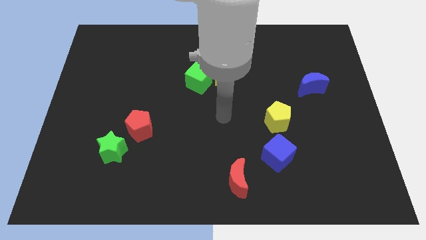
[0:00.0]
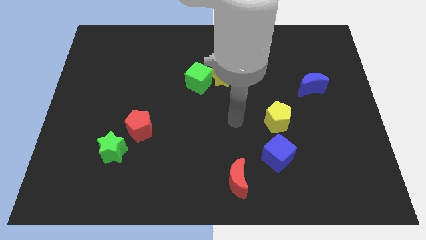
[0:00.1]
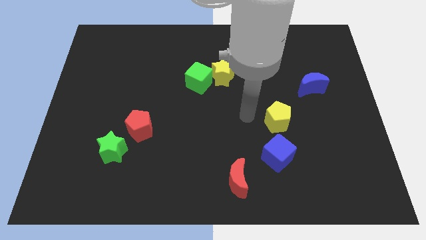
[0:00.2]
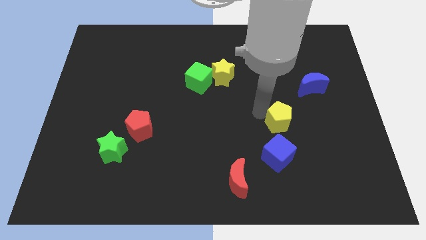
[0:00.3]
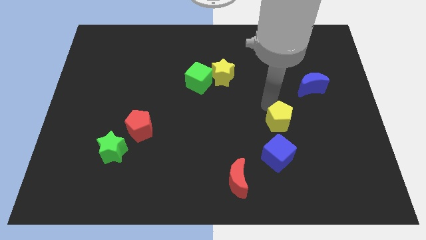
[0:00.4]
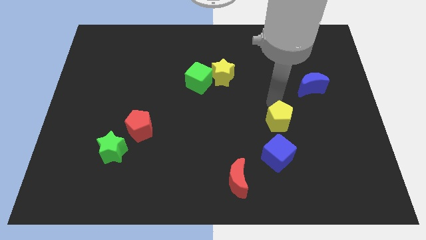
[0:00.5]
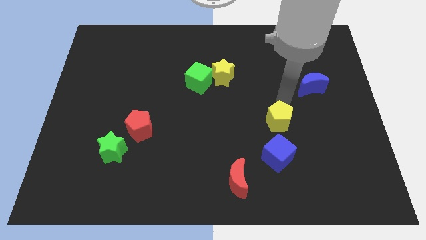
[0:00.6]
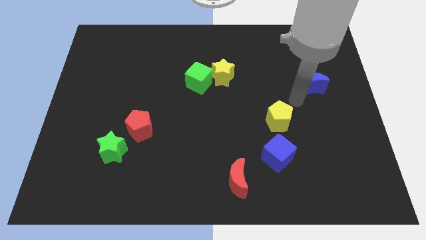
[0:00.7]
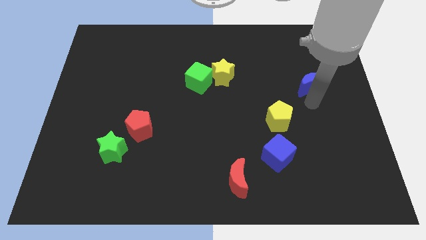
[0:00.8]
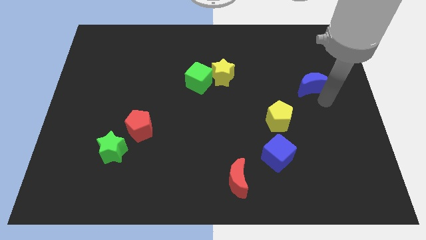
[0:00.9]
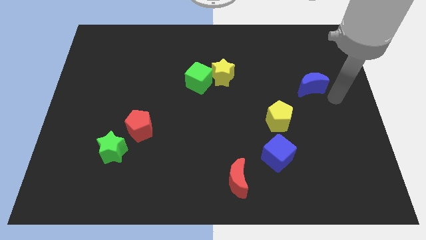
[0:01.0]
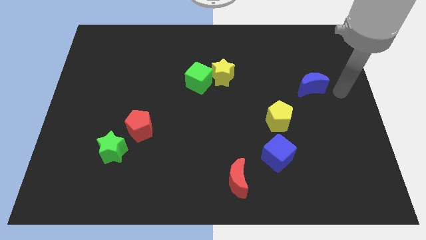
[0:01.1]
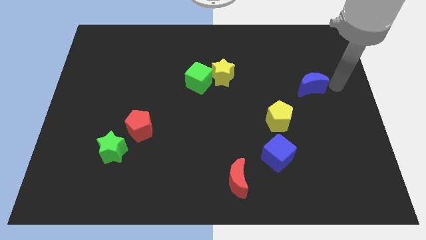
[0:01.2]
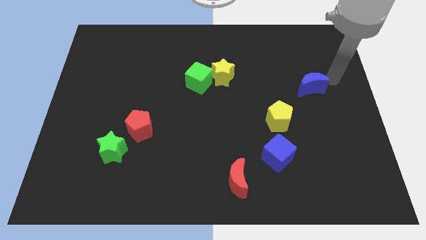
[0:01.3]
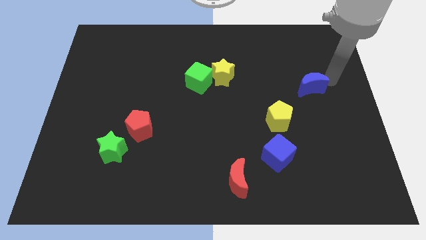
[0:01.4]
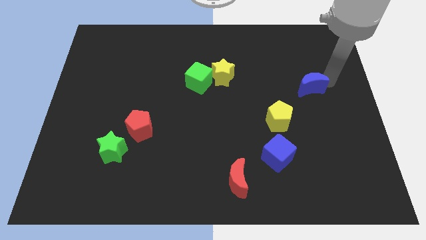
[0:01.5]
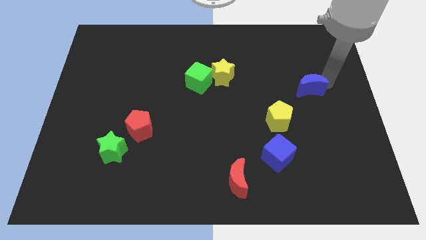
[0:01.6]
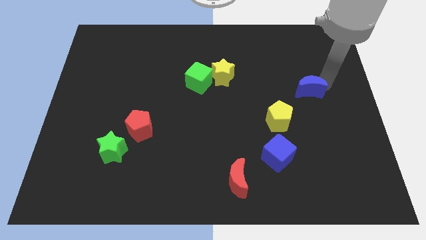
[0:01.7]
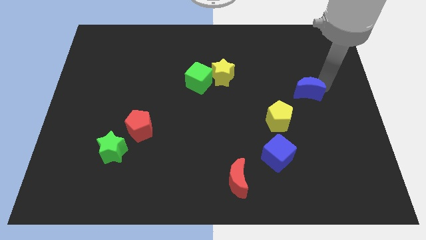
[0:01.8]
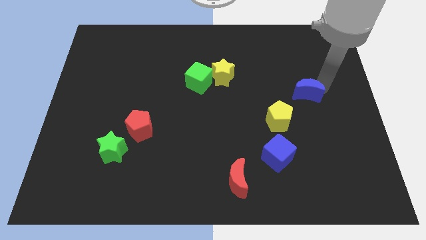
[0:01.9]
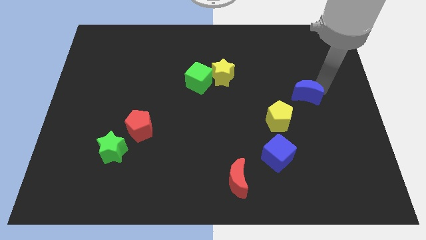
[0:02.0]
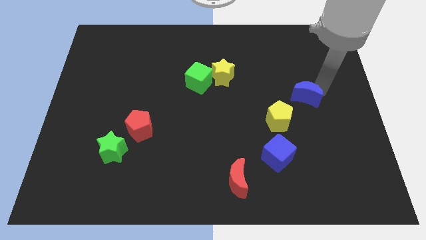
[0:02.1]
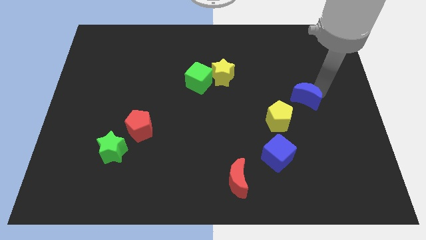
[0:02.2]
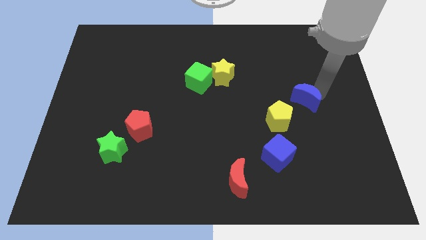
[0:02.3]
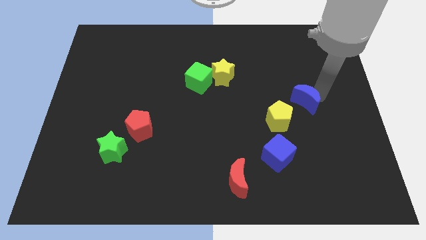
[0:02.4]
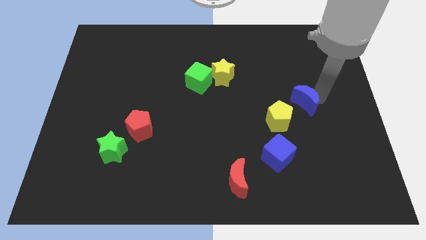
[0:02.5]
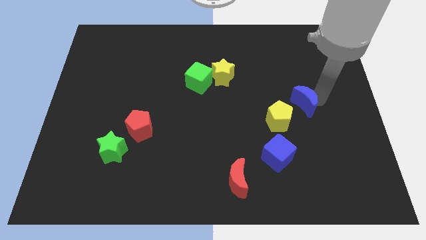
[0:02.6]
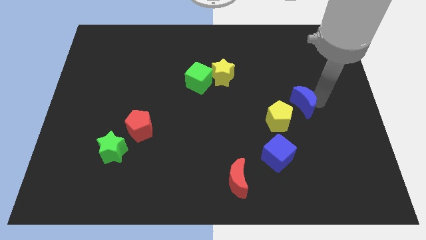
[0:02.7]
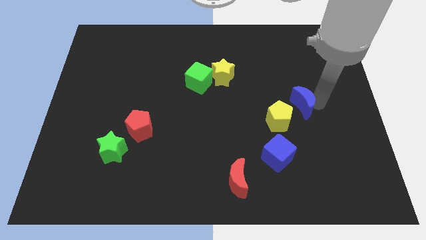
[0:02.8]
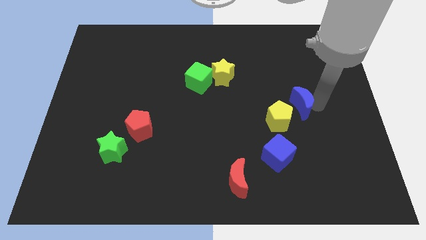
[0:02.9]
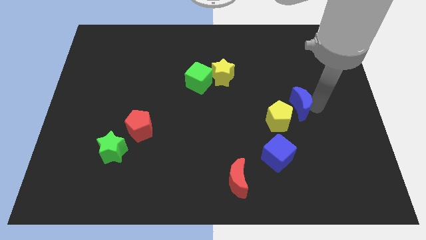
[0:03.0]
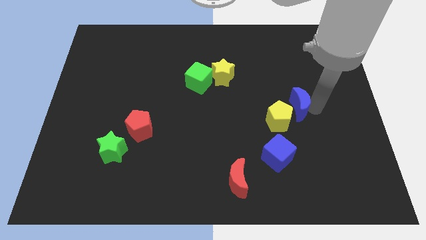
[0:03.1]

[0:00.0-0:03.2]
slide the blue moon a little bit down and left diagonally

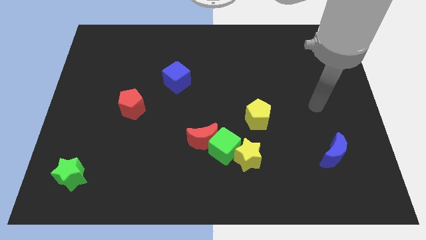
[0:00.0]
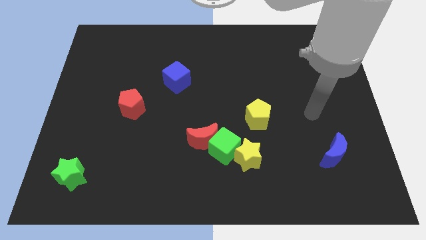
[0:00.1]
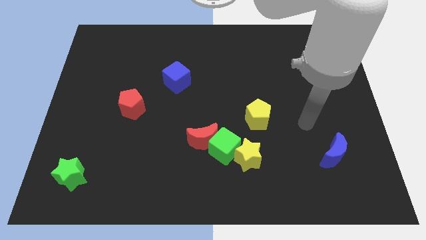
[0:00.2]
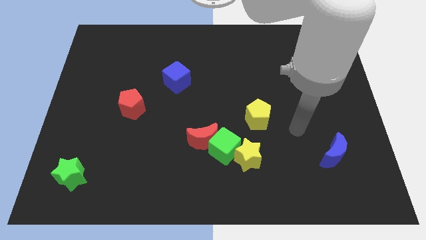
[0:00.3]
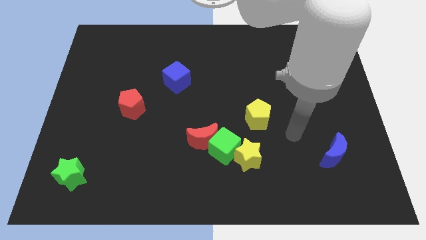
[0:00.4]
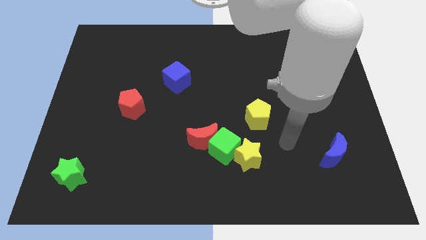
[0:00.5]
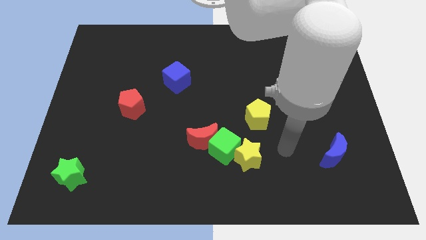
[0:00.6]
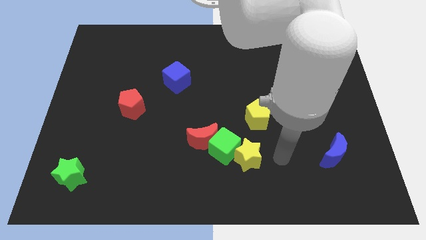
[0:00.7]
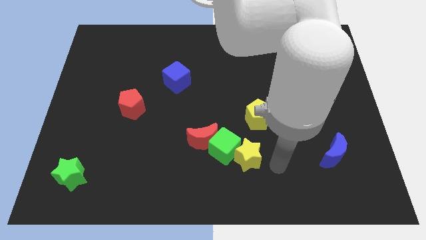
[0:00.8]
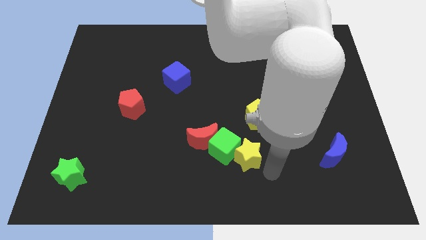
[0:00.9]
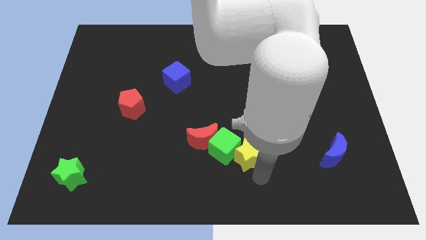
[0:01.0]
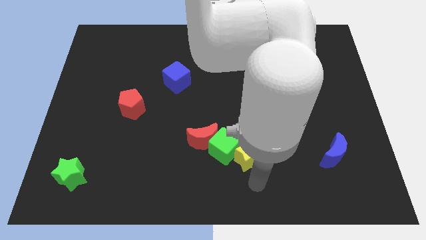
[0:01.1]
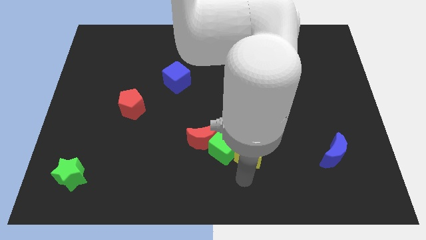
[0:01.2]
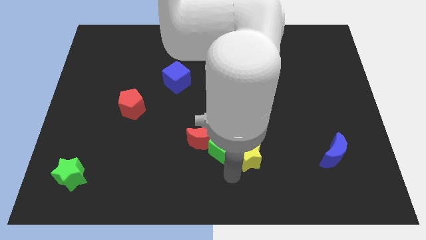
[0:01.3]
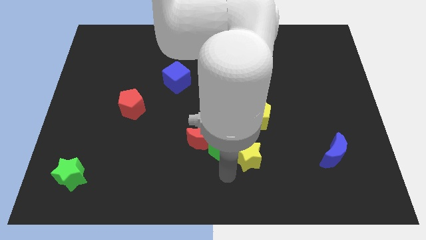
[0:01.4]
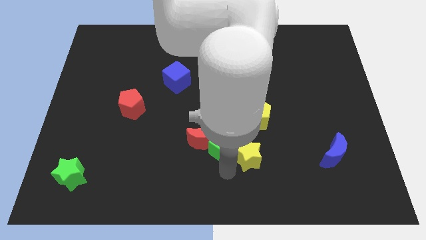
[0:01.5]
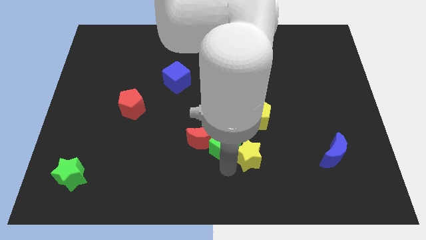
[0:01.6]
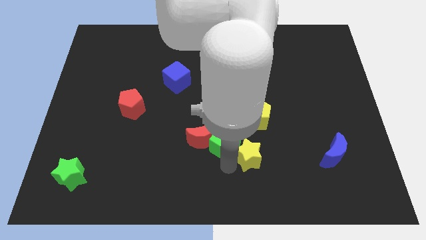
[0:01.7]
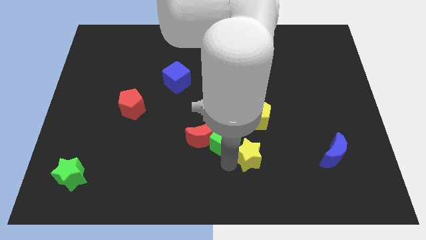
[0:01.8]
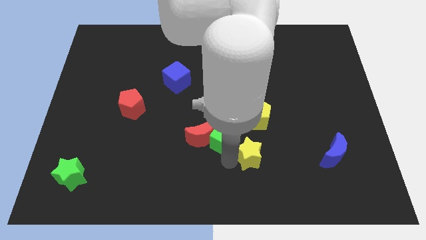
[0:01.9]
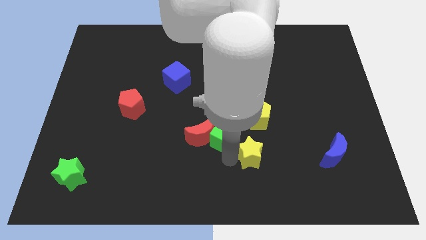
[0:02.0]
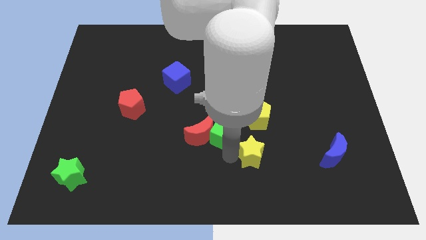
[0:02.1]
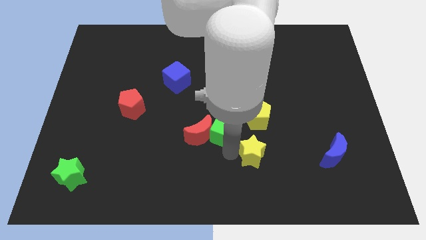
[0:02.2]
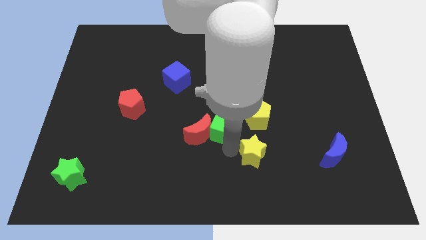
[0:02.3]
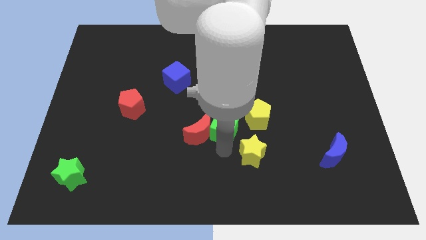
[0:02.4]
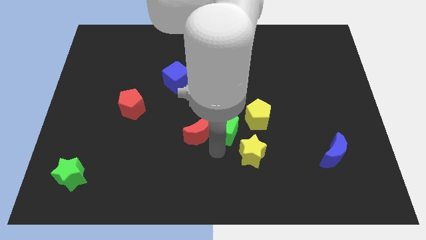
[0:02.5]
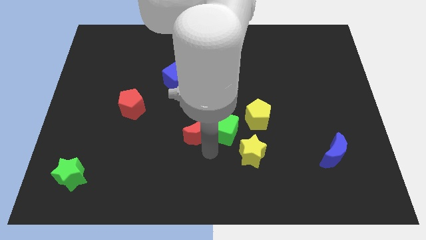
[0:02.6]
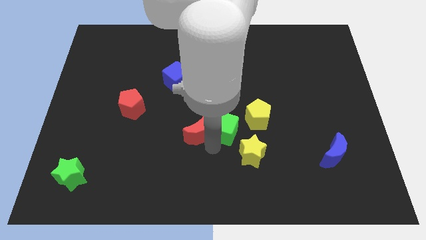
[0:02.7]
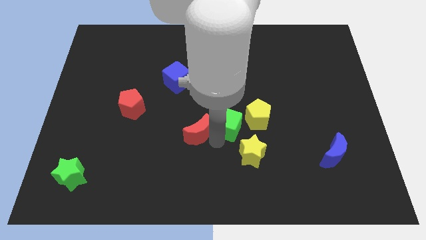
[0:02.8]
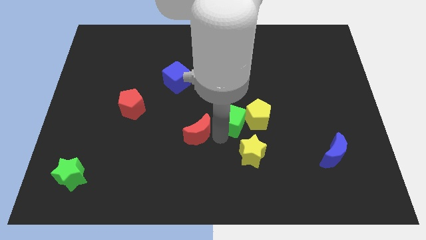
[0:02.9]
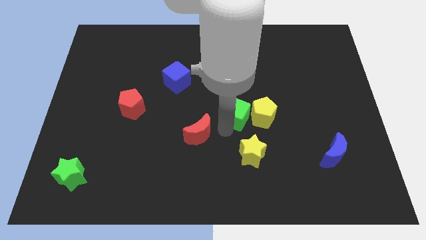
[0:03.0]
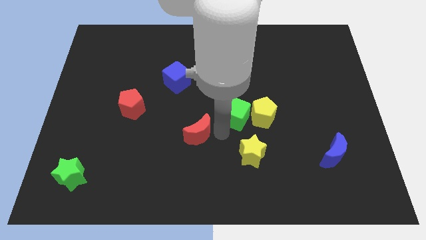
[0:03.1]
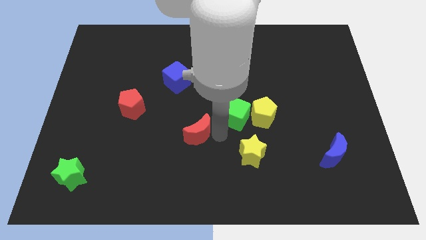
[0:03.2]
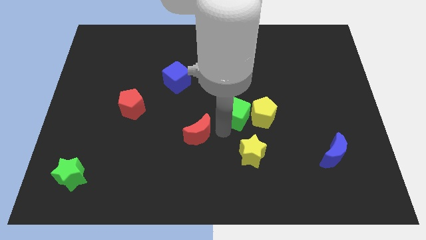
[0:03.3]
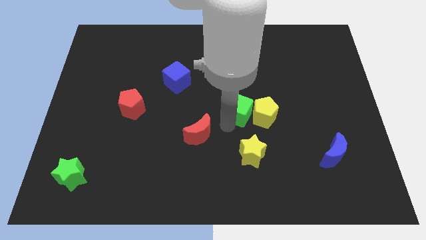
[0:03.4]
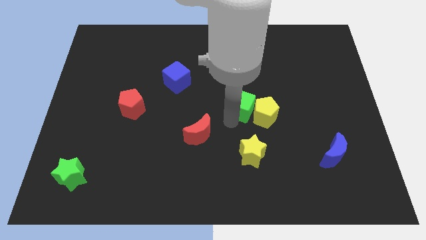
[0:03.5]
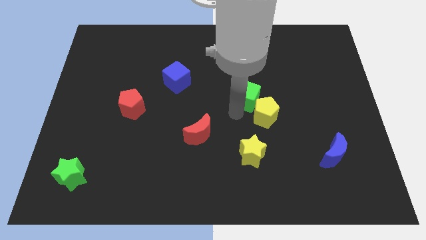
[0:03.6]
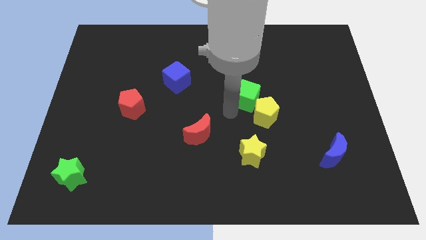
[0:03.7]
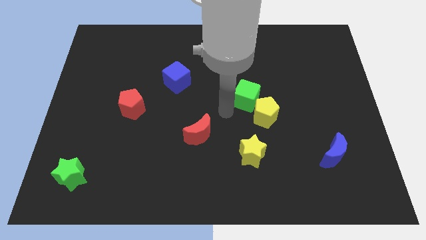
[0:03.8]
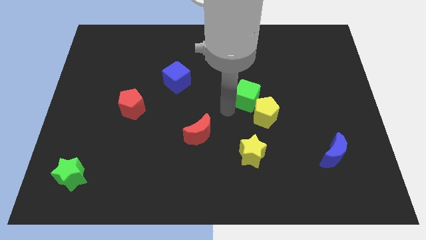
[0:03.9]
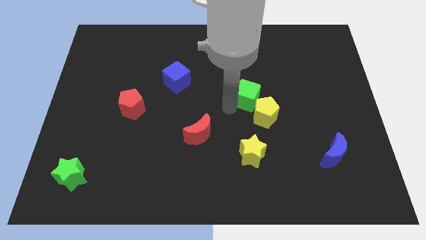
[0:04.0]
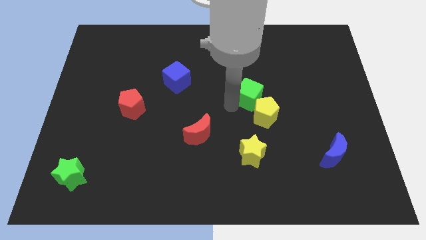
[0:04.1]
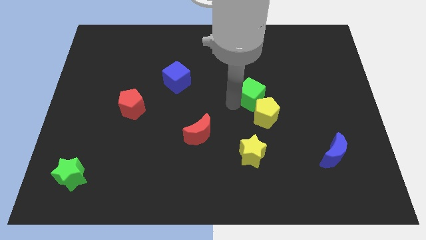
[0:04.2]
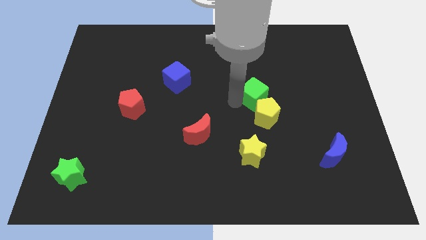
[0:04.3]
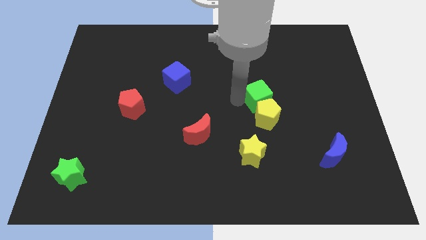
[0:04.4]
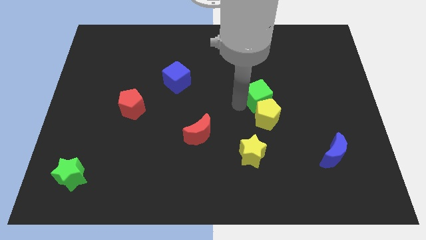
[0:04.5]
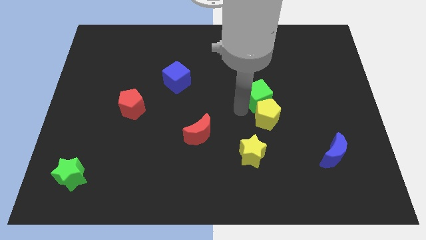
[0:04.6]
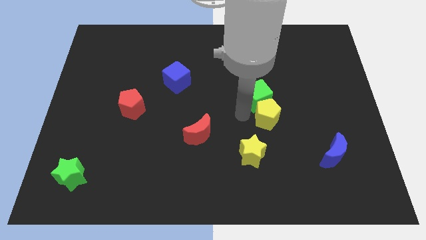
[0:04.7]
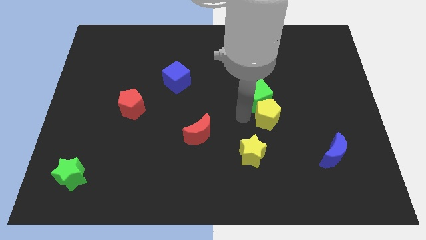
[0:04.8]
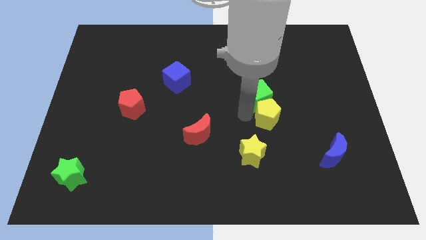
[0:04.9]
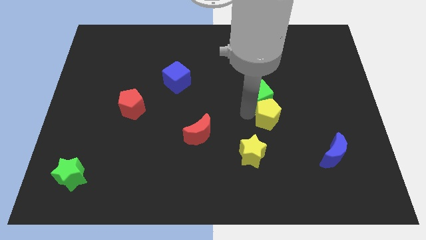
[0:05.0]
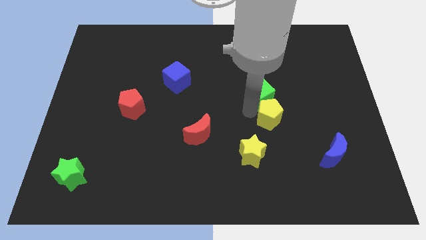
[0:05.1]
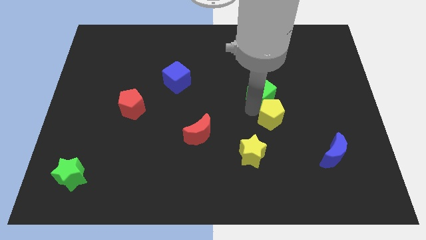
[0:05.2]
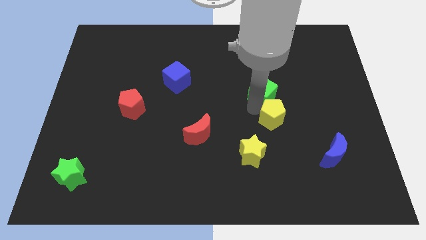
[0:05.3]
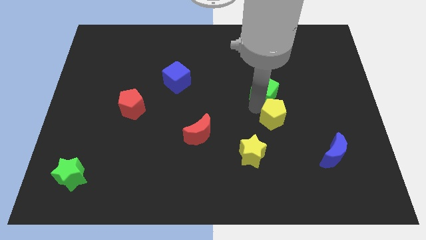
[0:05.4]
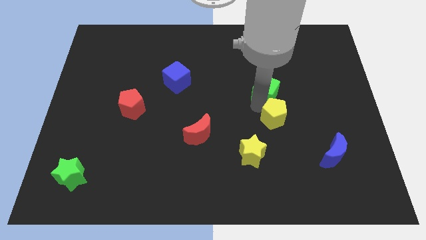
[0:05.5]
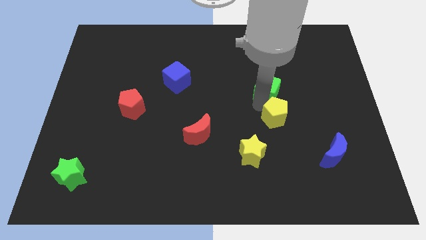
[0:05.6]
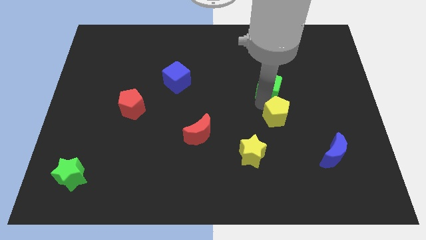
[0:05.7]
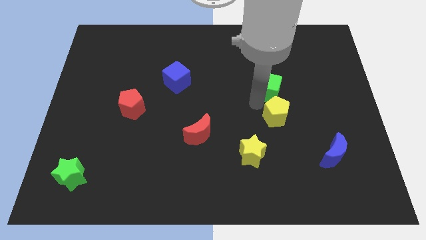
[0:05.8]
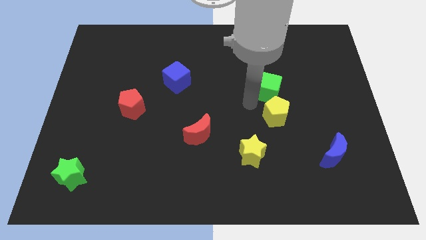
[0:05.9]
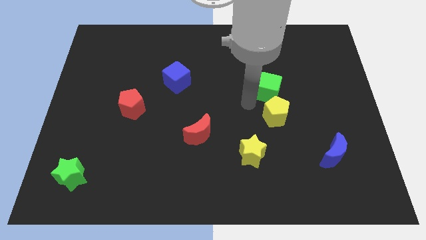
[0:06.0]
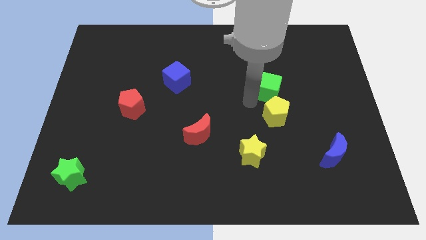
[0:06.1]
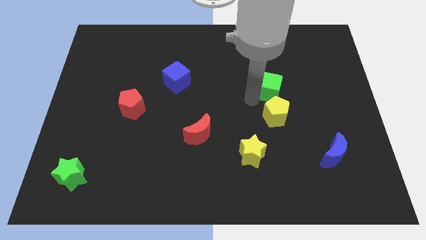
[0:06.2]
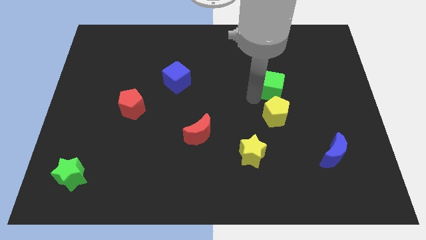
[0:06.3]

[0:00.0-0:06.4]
slide the green cube up and right
